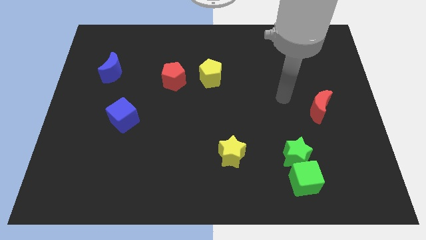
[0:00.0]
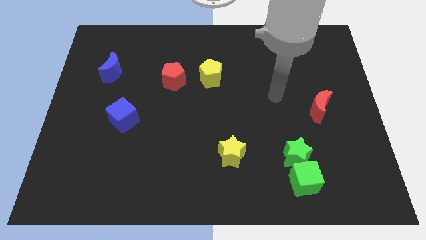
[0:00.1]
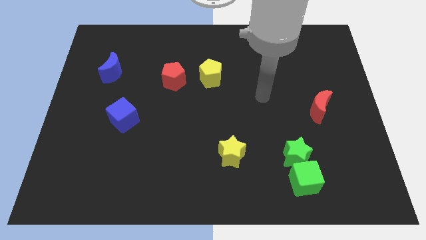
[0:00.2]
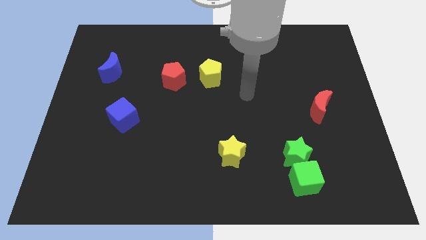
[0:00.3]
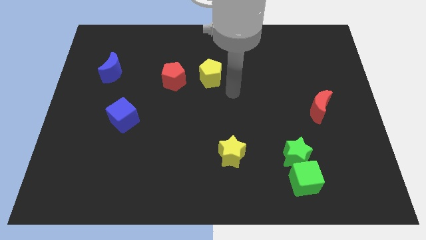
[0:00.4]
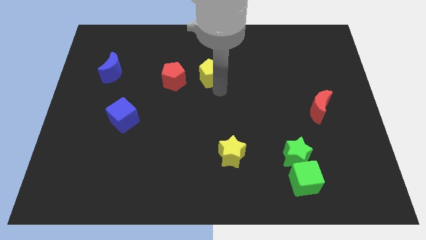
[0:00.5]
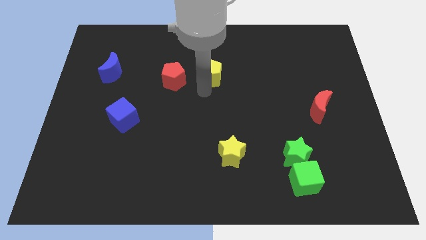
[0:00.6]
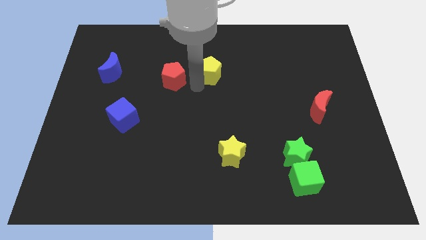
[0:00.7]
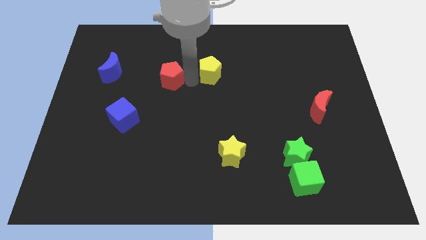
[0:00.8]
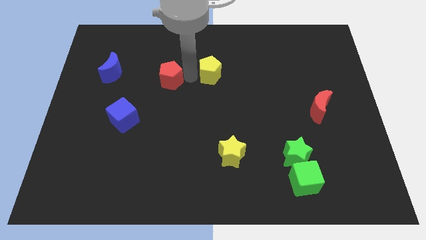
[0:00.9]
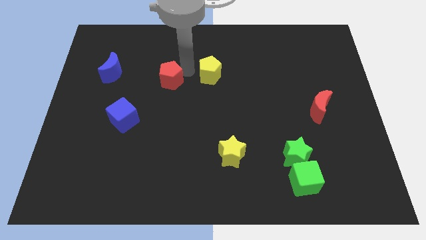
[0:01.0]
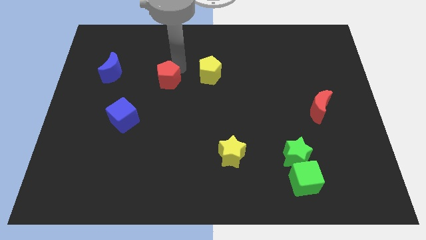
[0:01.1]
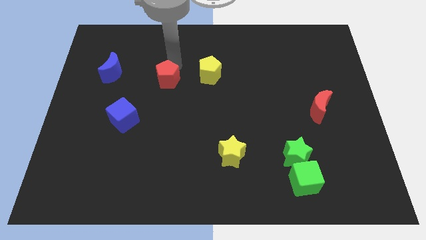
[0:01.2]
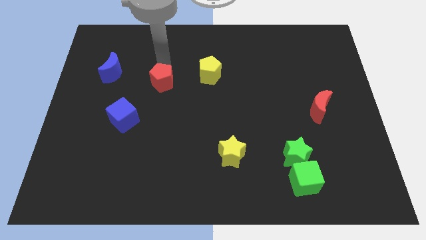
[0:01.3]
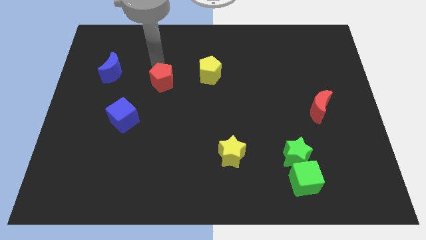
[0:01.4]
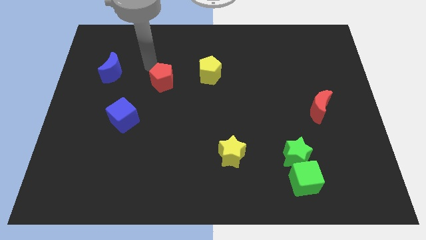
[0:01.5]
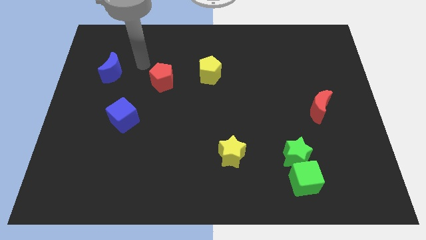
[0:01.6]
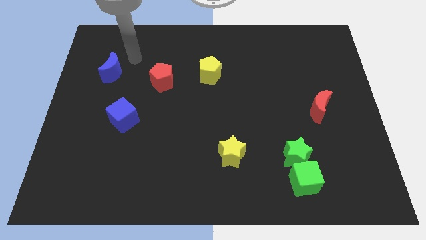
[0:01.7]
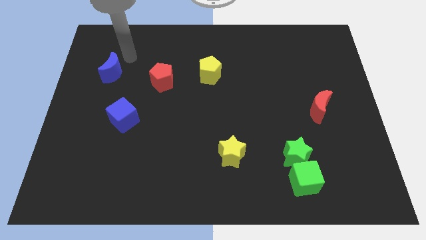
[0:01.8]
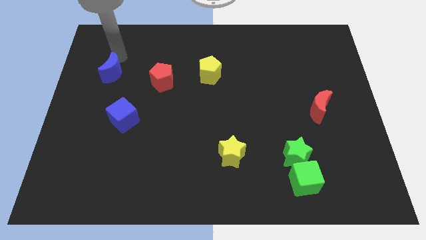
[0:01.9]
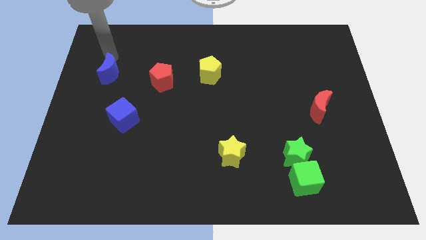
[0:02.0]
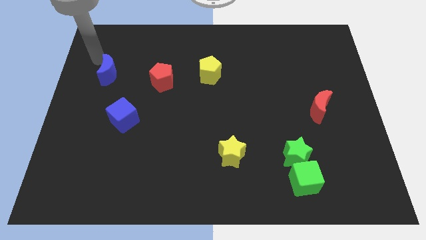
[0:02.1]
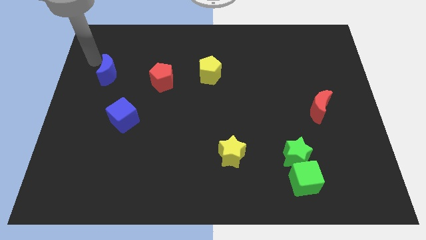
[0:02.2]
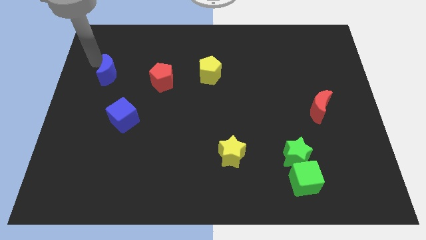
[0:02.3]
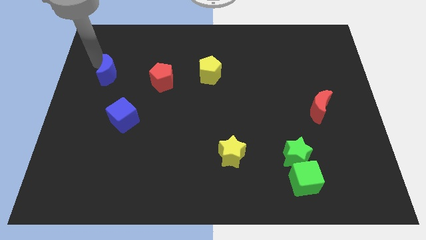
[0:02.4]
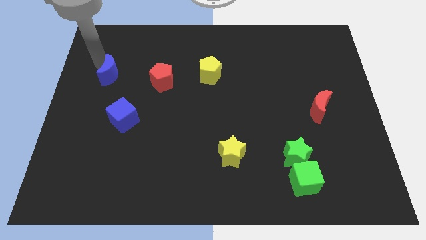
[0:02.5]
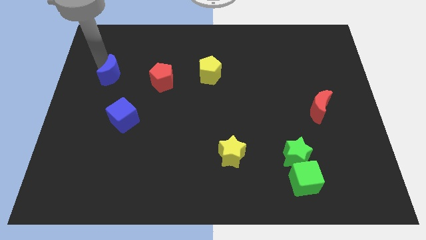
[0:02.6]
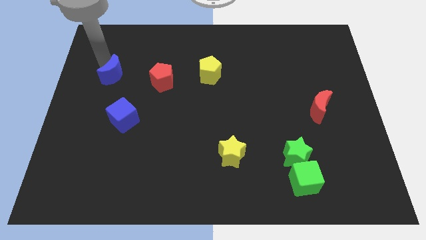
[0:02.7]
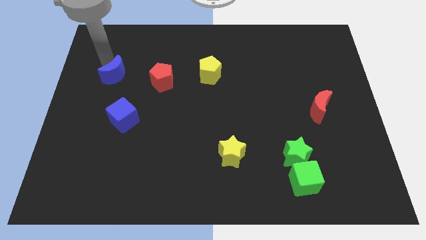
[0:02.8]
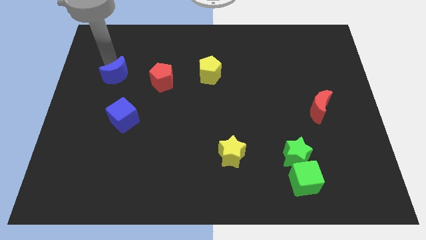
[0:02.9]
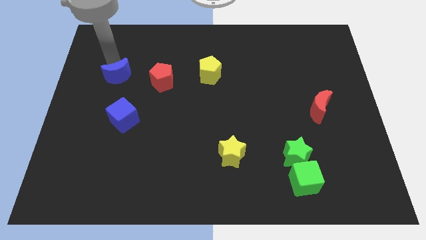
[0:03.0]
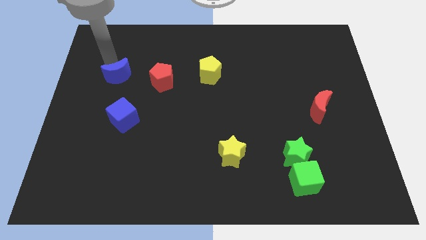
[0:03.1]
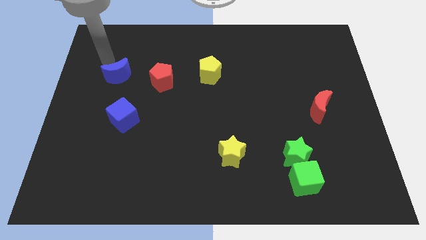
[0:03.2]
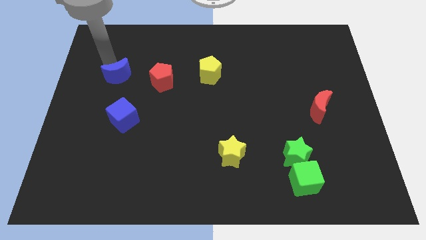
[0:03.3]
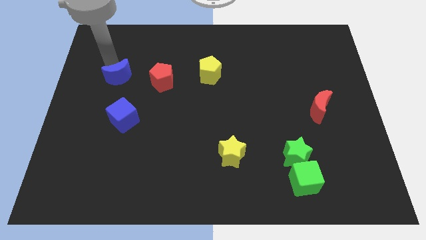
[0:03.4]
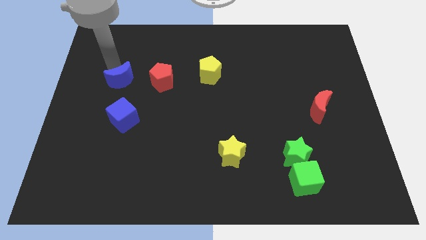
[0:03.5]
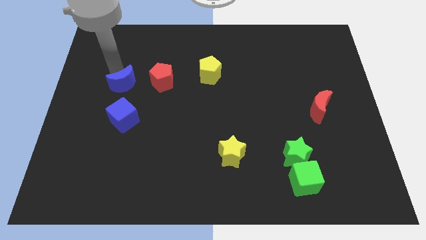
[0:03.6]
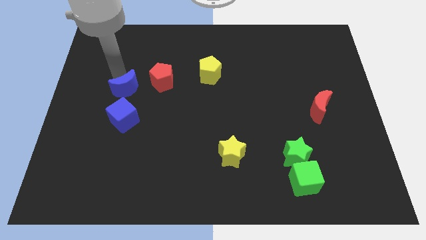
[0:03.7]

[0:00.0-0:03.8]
move the blue moon a bit down and then to the right

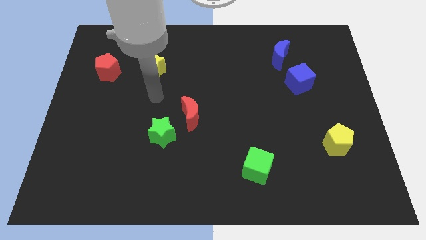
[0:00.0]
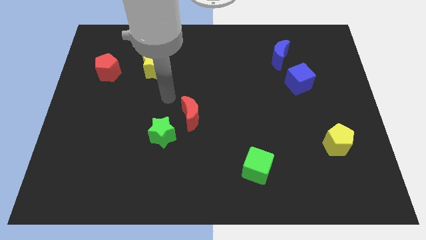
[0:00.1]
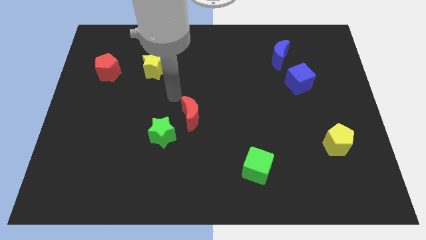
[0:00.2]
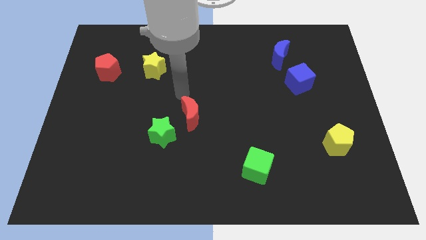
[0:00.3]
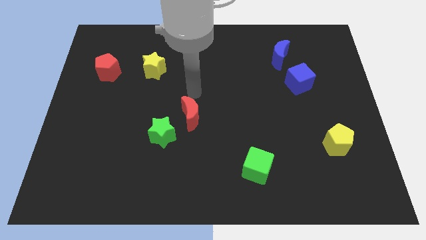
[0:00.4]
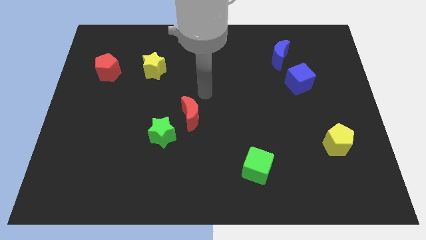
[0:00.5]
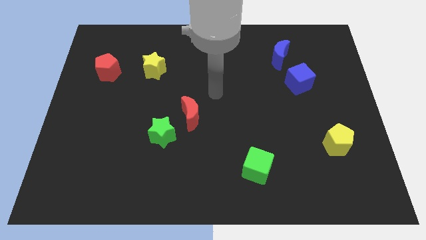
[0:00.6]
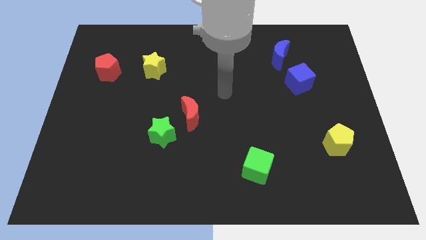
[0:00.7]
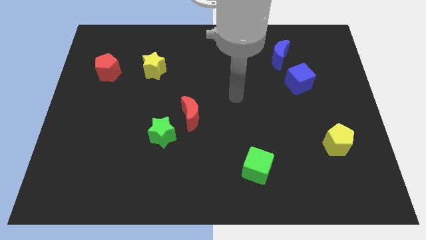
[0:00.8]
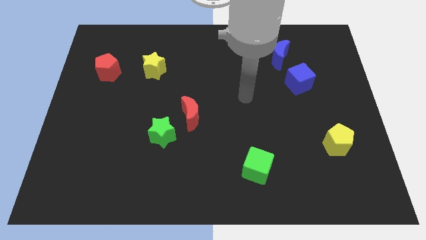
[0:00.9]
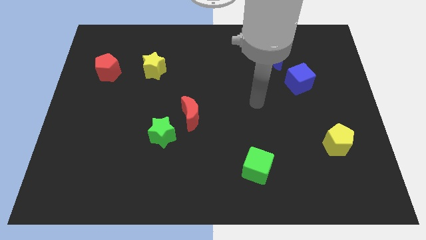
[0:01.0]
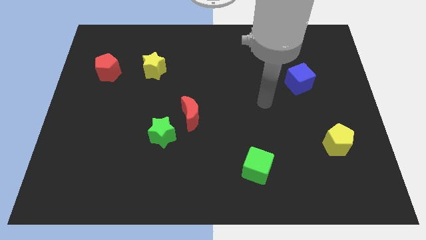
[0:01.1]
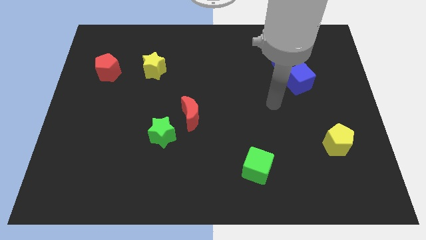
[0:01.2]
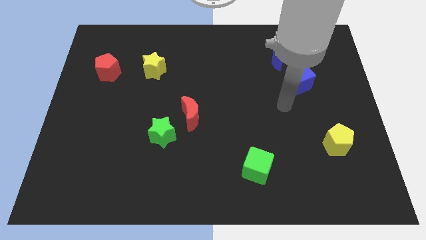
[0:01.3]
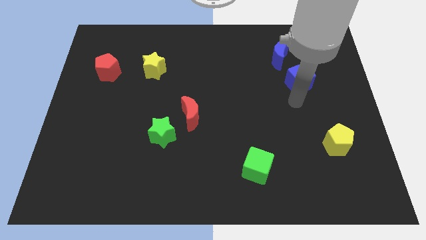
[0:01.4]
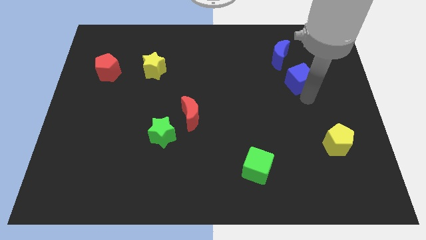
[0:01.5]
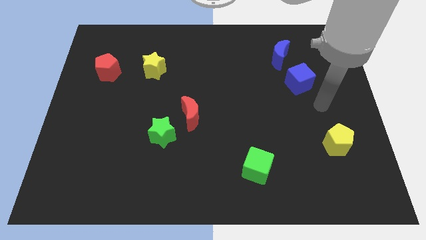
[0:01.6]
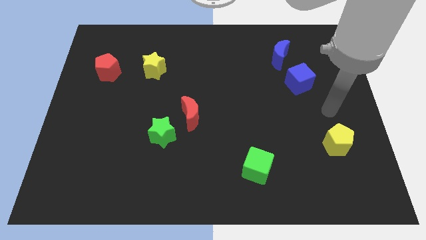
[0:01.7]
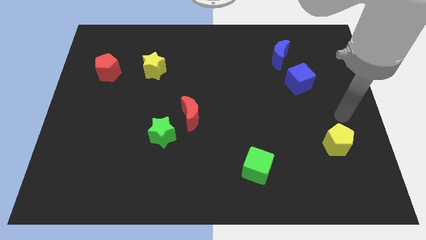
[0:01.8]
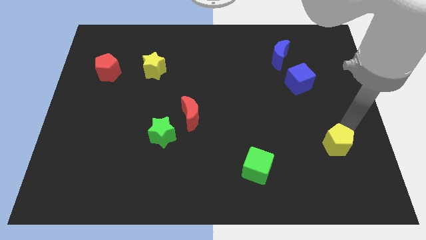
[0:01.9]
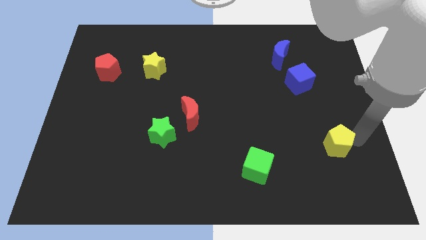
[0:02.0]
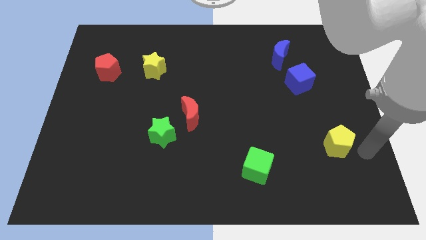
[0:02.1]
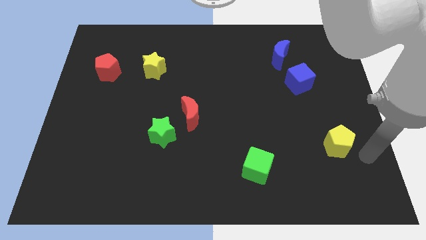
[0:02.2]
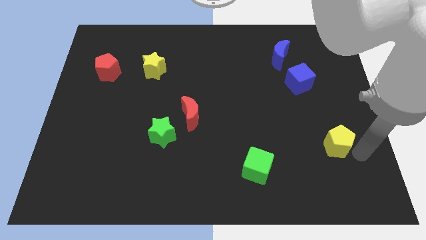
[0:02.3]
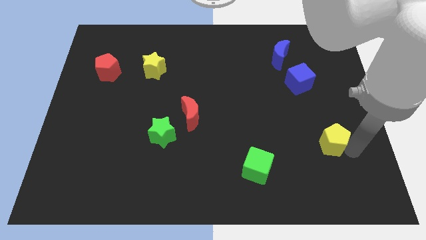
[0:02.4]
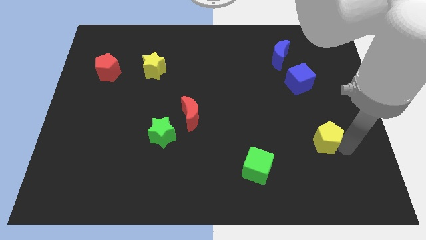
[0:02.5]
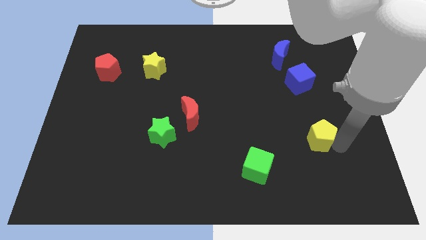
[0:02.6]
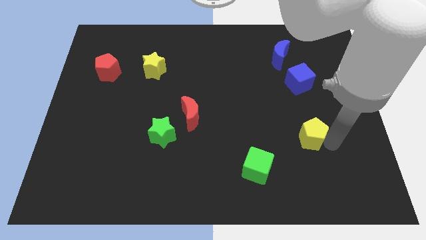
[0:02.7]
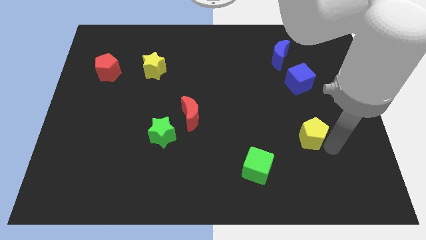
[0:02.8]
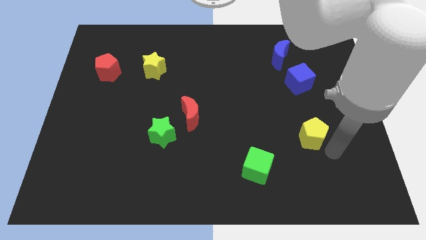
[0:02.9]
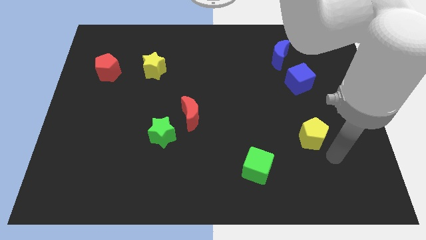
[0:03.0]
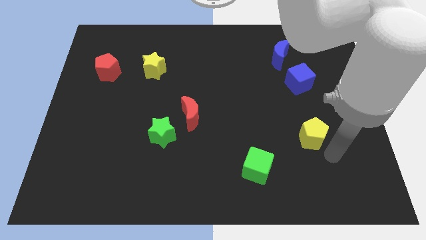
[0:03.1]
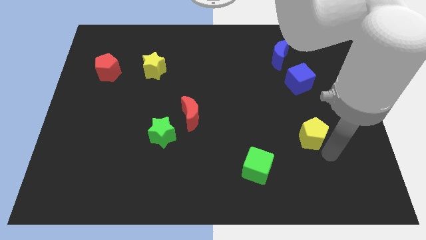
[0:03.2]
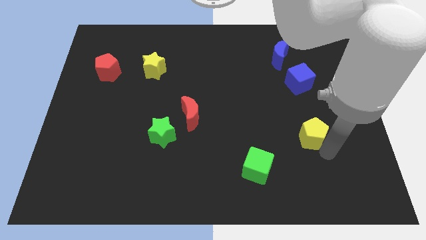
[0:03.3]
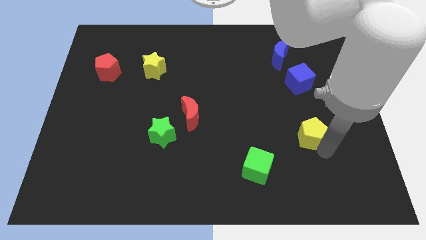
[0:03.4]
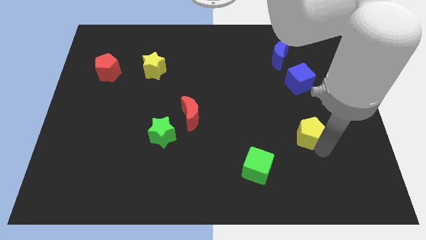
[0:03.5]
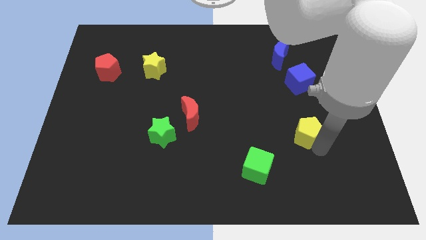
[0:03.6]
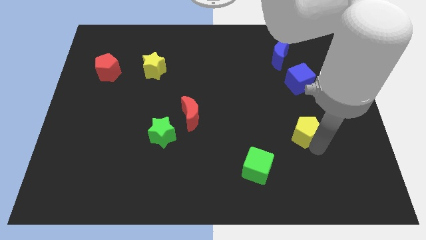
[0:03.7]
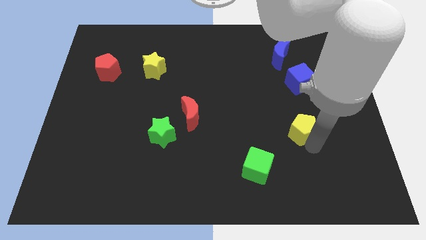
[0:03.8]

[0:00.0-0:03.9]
slightly push the yellow pentagon diagonally up and to the left
